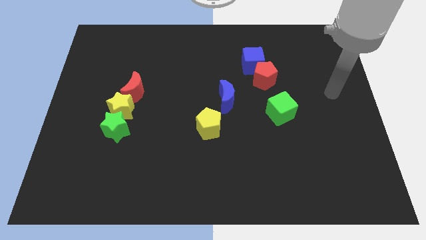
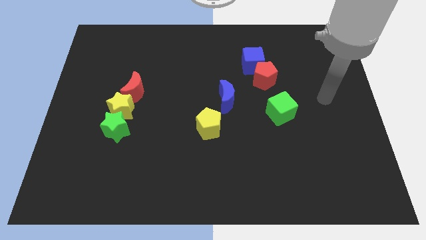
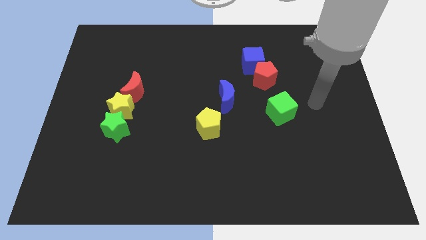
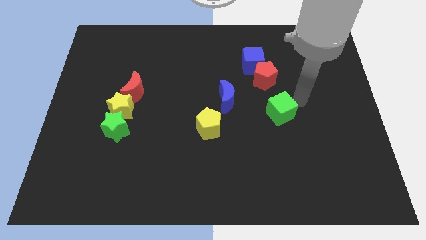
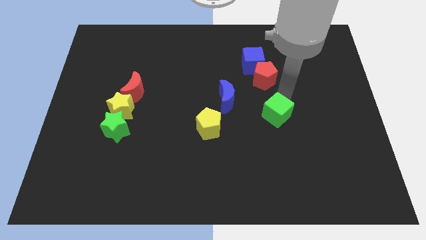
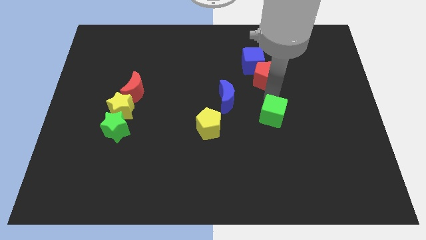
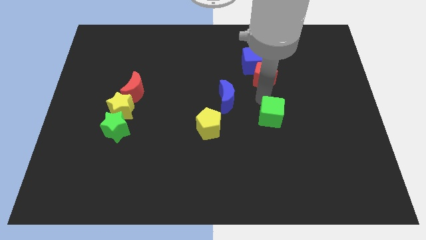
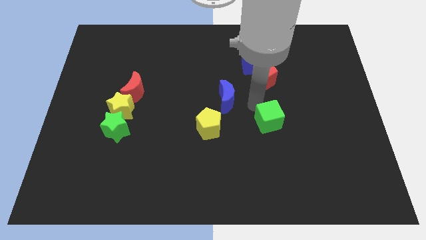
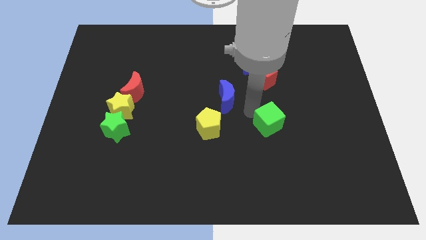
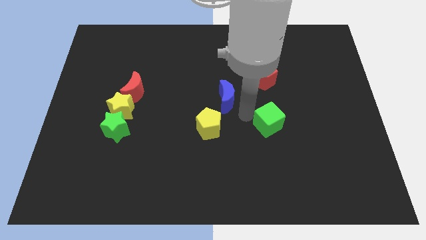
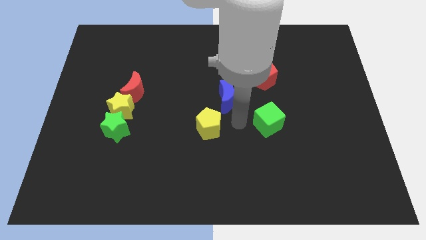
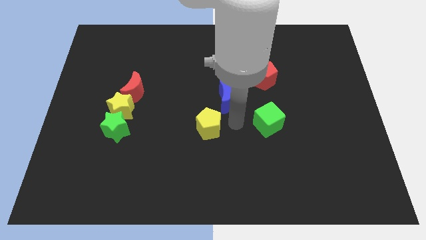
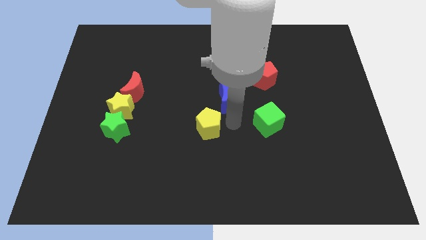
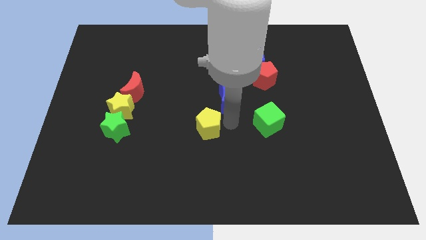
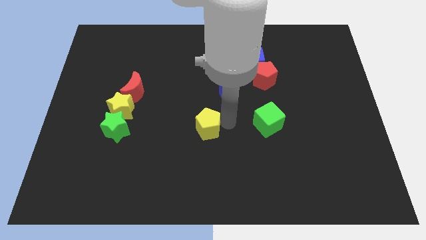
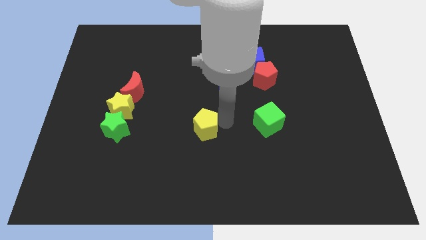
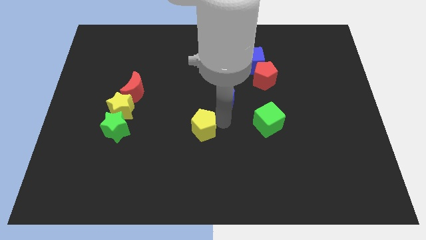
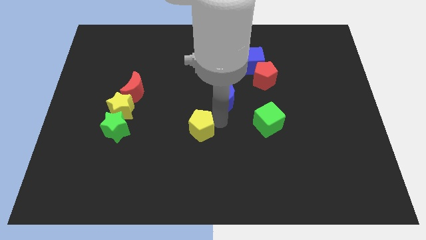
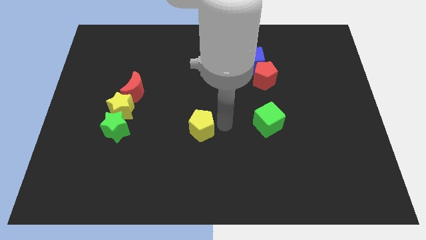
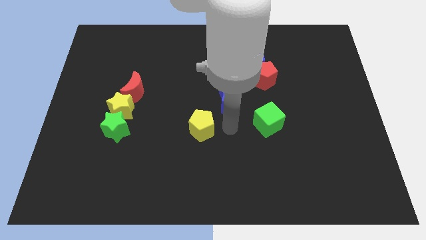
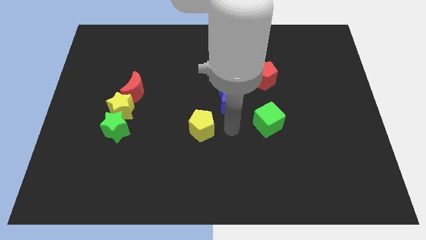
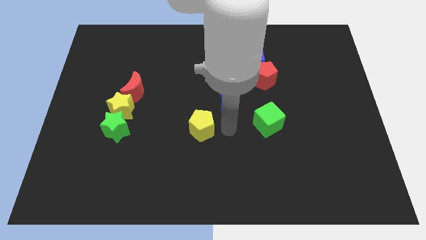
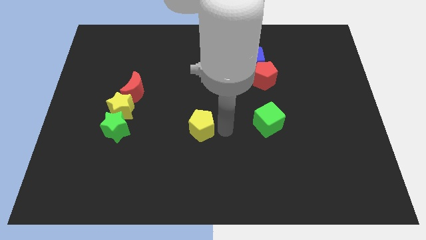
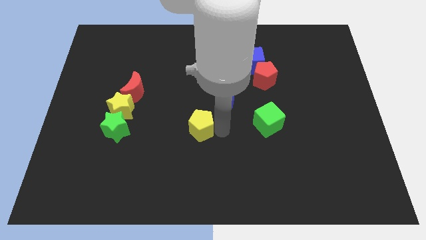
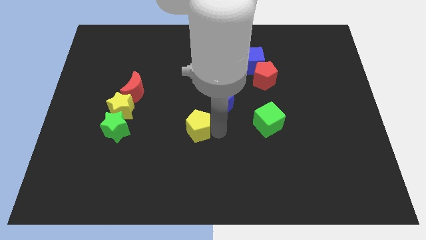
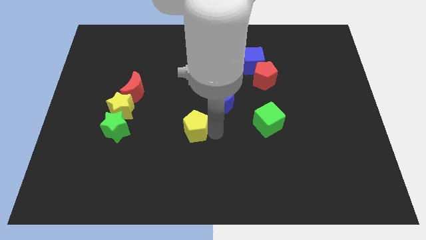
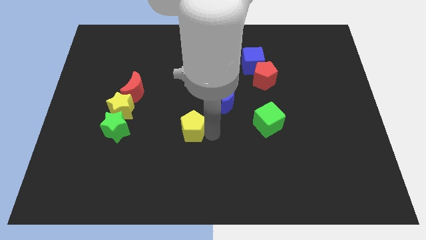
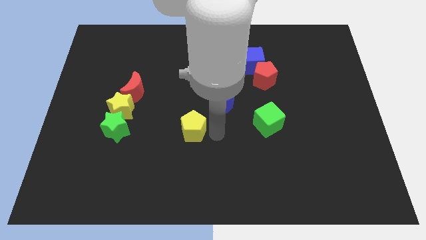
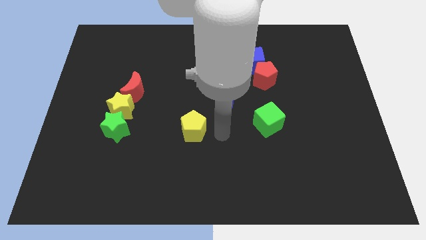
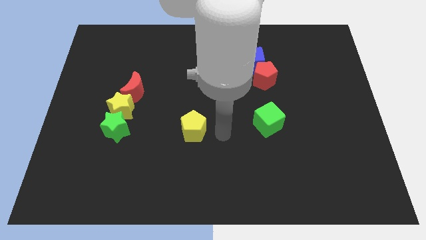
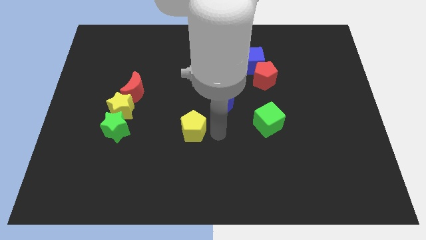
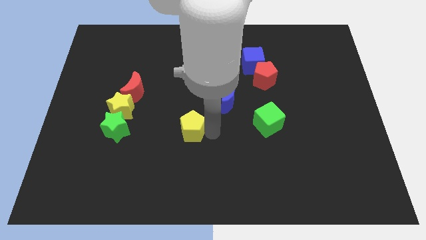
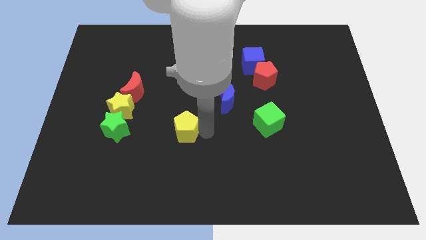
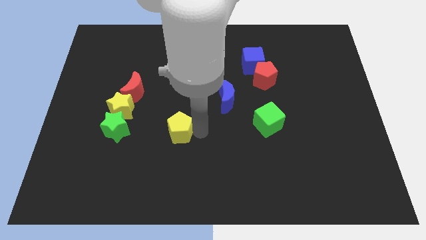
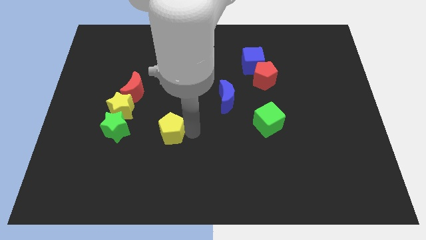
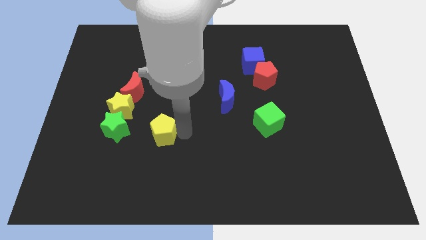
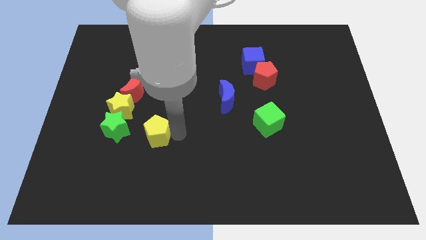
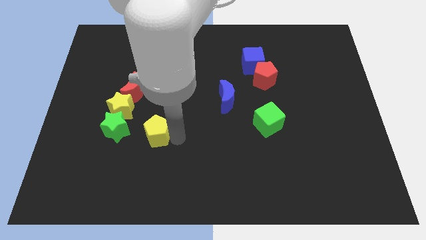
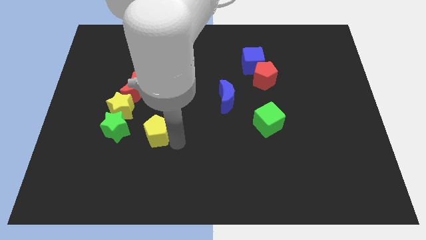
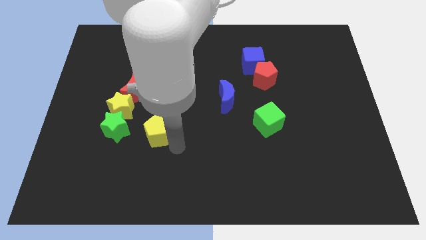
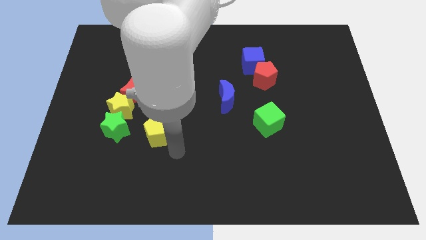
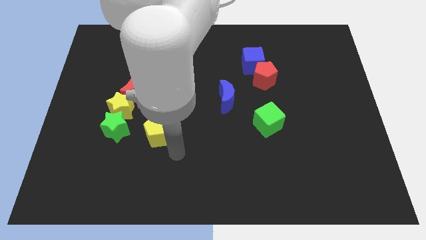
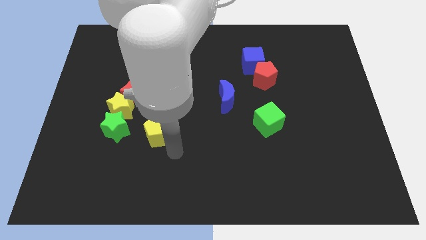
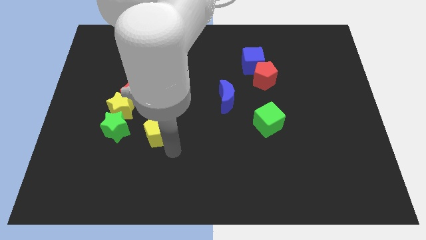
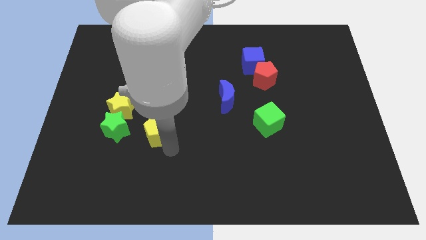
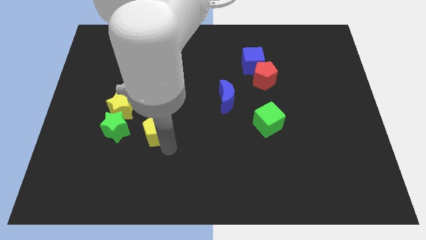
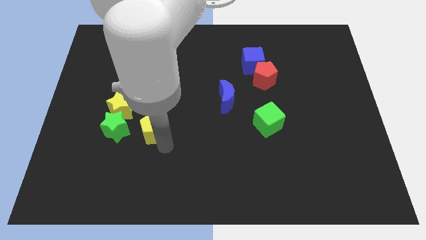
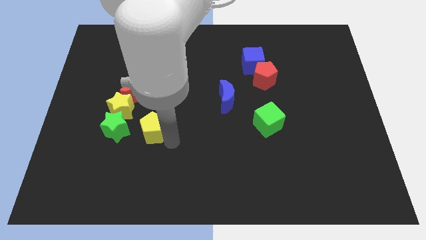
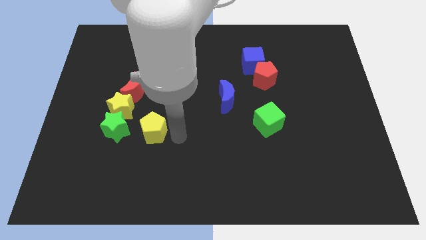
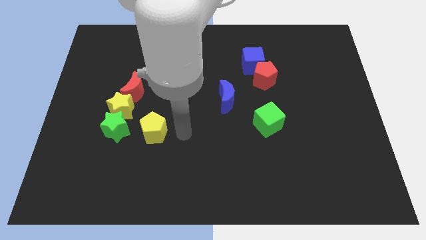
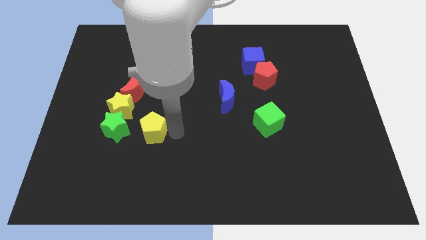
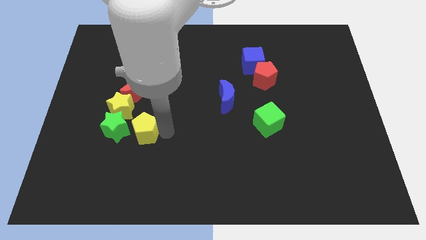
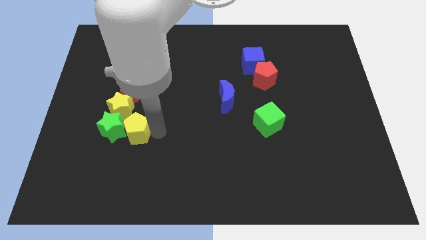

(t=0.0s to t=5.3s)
put the yellow pentagon to the green star

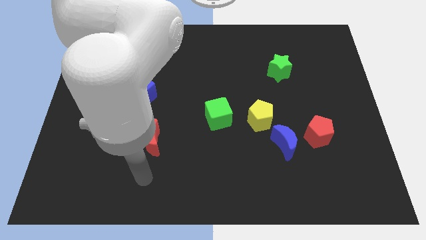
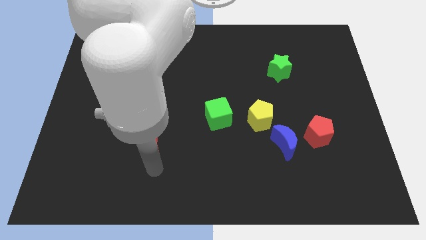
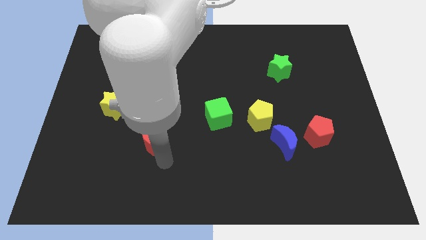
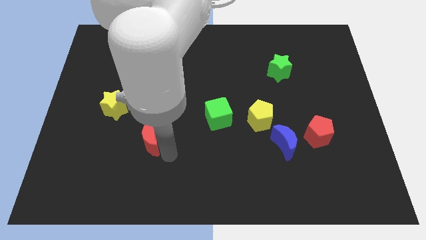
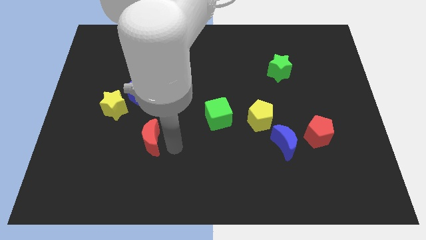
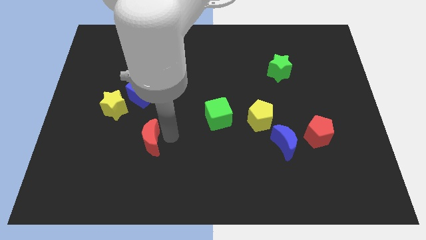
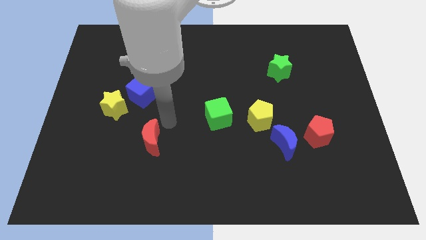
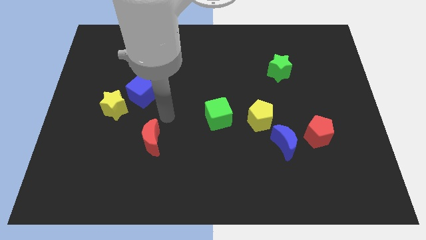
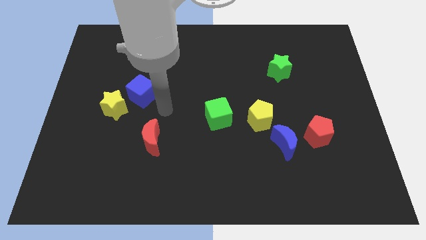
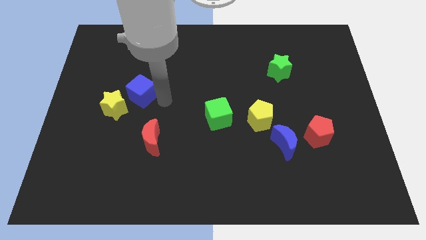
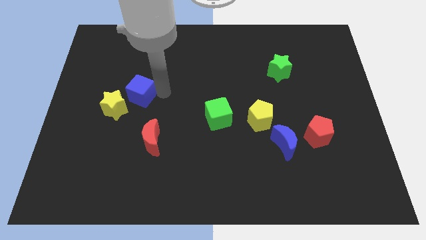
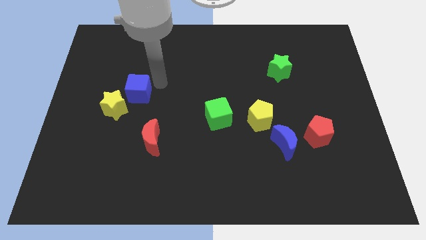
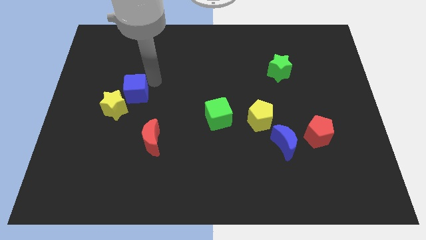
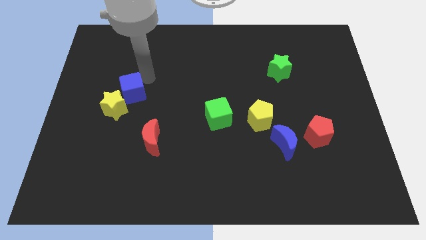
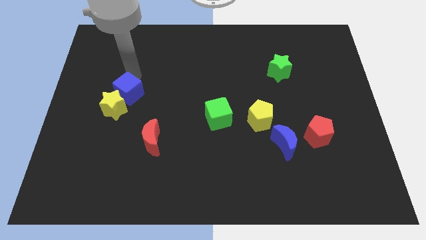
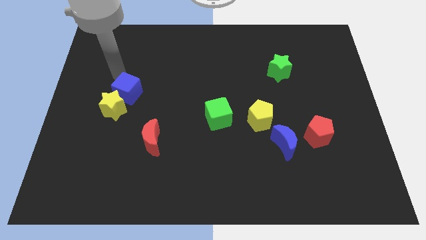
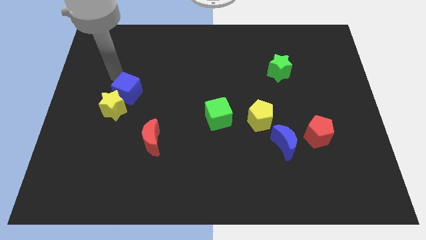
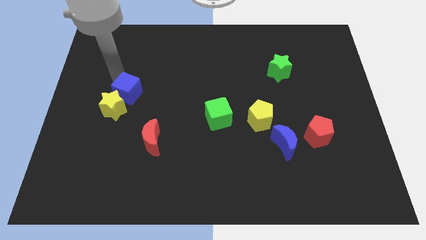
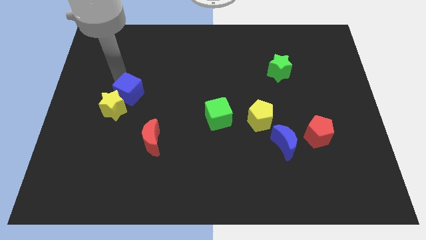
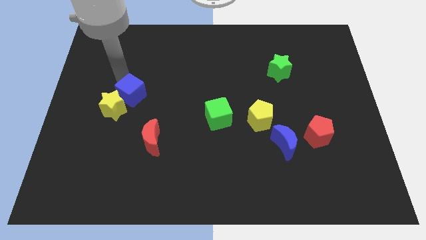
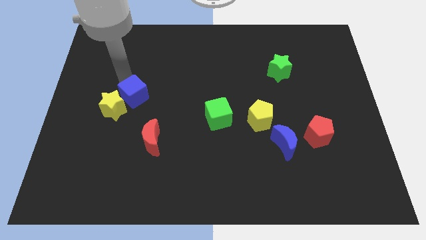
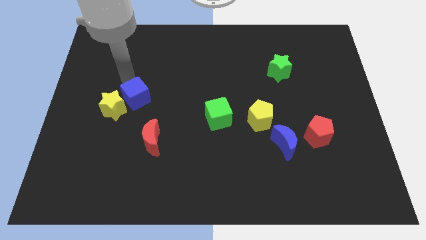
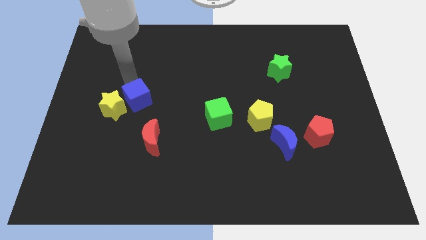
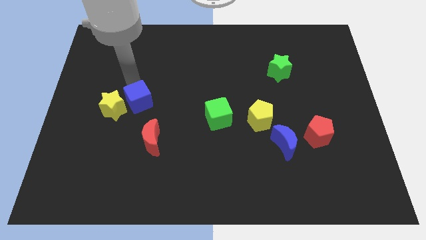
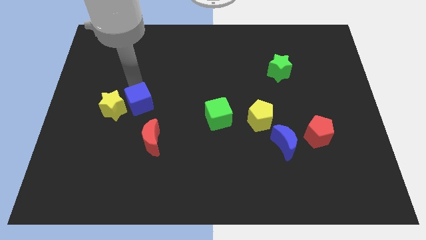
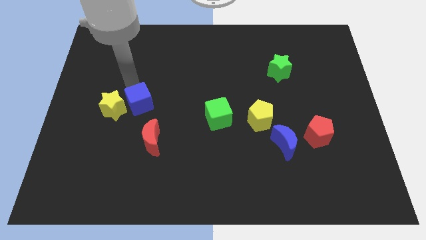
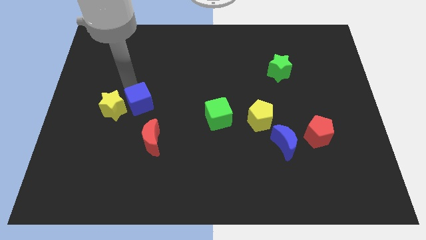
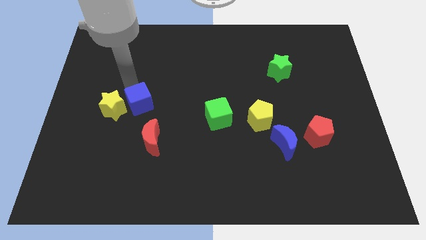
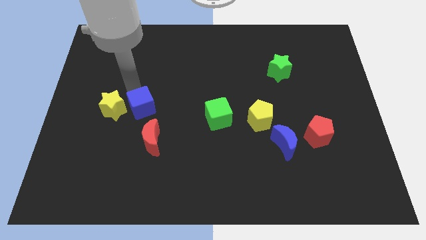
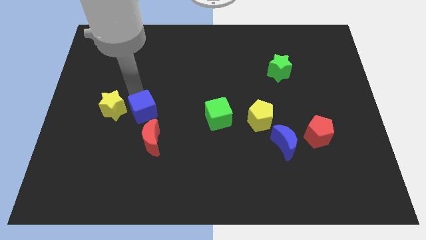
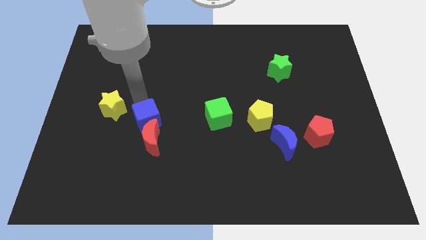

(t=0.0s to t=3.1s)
push the blue cube next to the red moon
